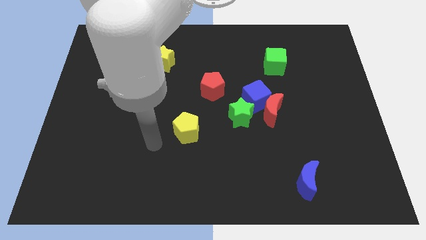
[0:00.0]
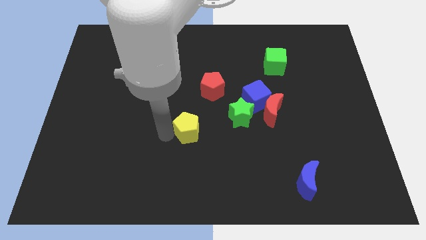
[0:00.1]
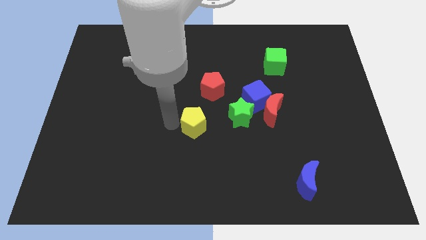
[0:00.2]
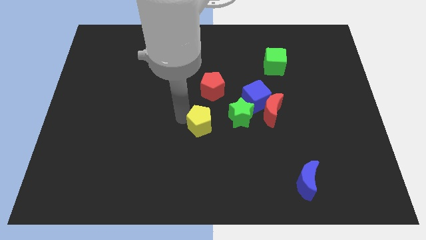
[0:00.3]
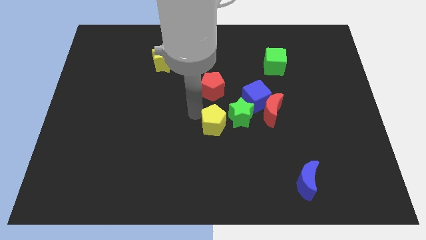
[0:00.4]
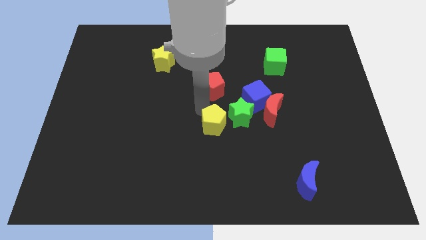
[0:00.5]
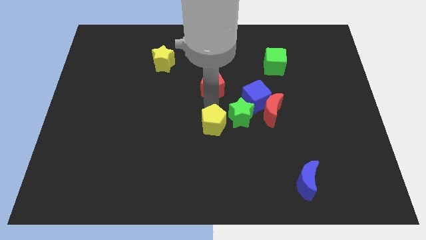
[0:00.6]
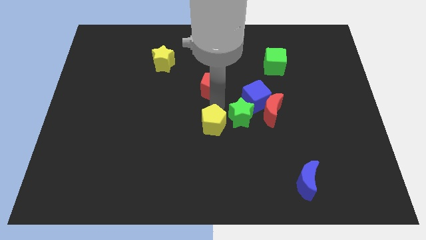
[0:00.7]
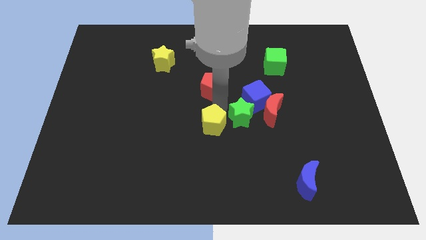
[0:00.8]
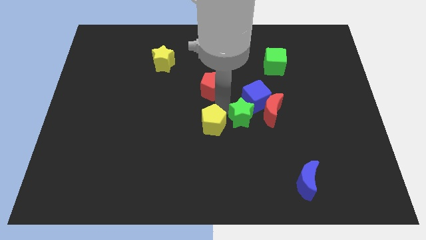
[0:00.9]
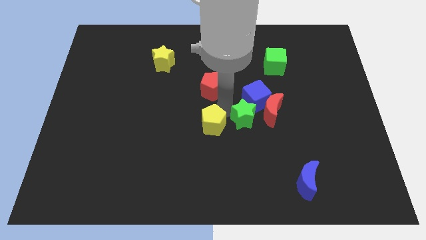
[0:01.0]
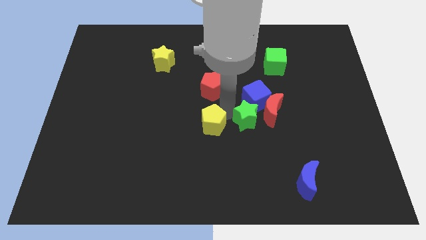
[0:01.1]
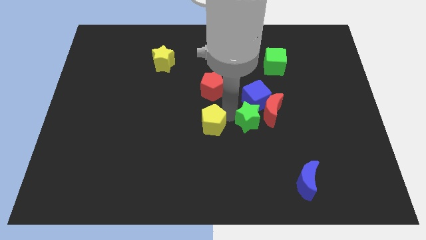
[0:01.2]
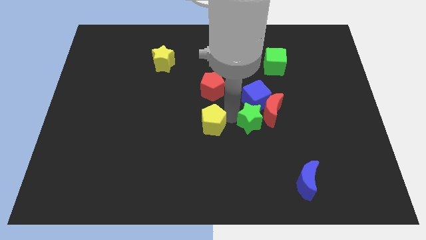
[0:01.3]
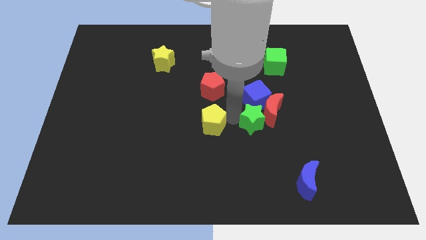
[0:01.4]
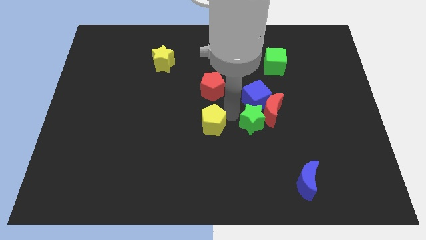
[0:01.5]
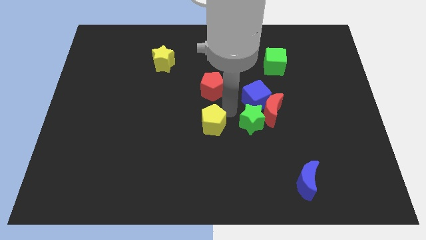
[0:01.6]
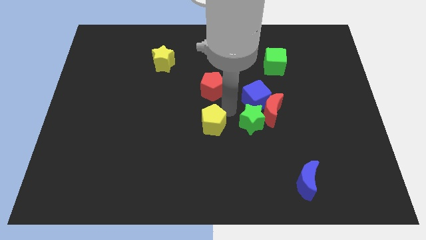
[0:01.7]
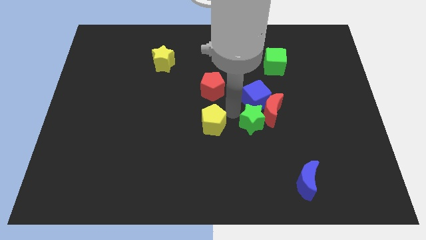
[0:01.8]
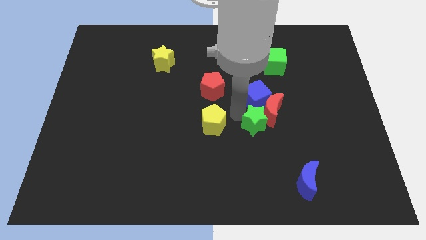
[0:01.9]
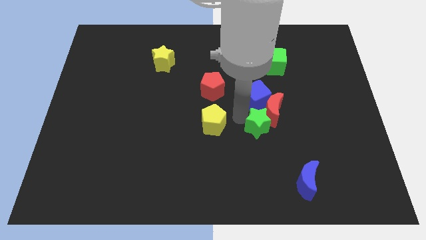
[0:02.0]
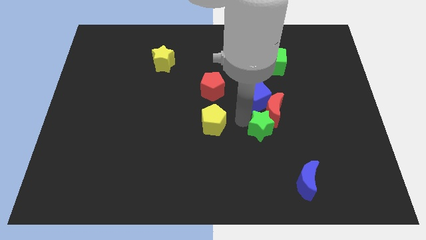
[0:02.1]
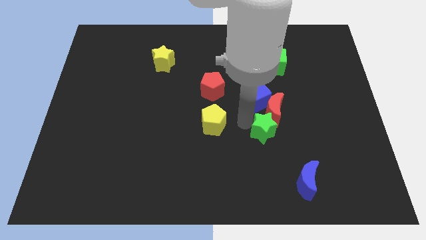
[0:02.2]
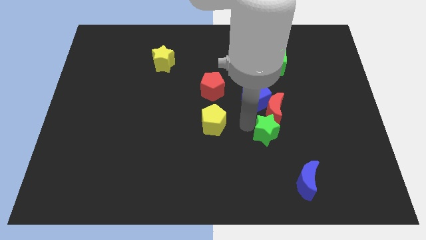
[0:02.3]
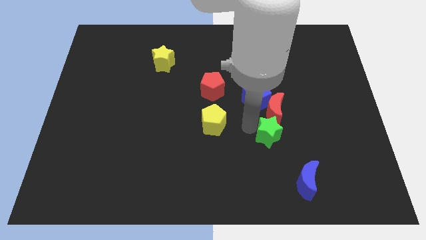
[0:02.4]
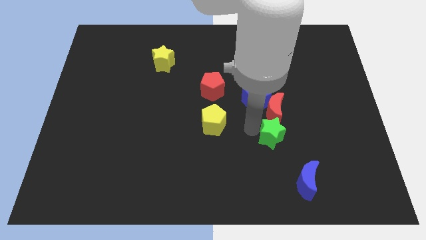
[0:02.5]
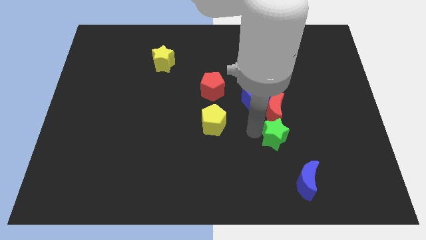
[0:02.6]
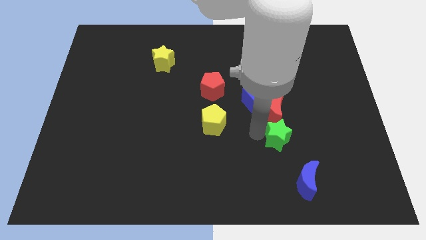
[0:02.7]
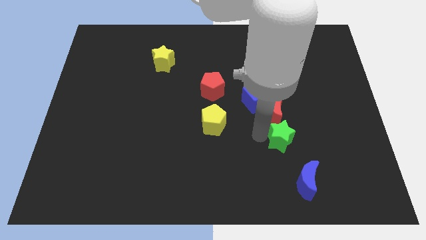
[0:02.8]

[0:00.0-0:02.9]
slightly move the green star to the right

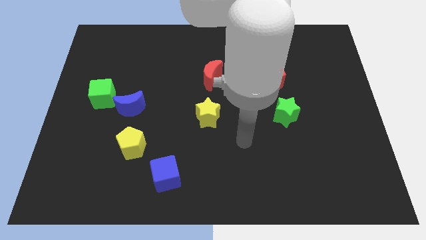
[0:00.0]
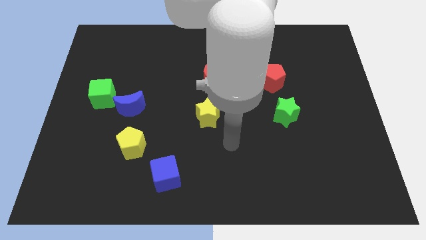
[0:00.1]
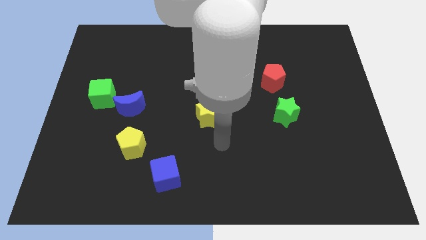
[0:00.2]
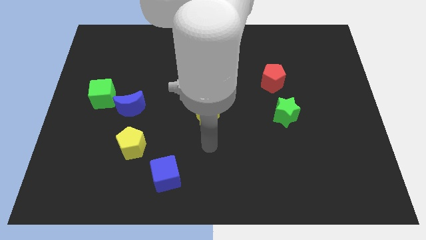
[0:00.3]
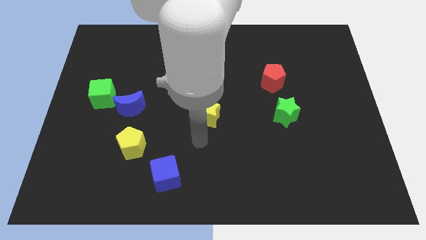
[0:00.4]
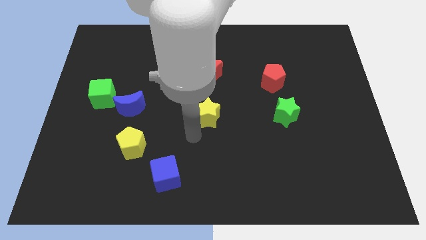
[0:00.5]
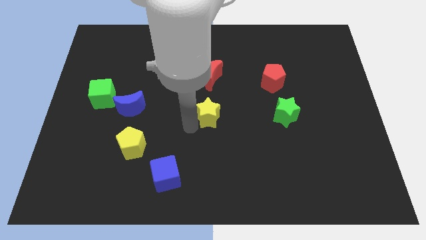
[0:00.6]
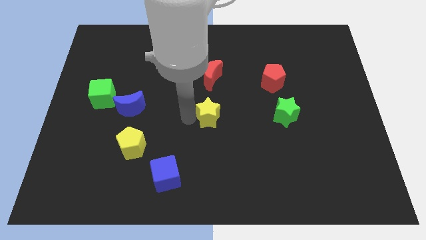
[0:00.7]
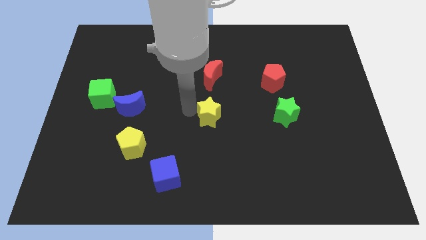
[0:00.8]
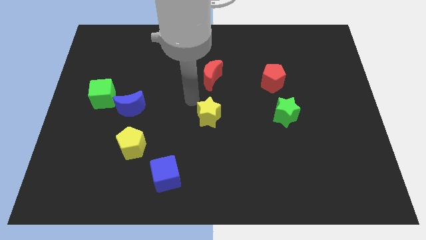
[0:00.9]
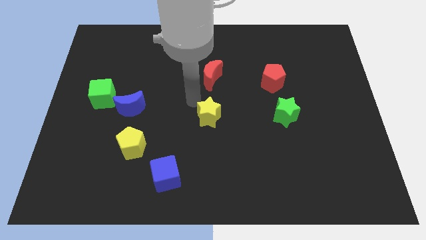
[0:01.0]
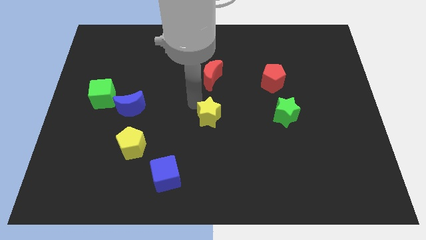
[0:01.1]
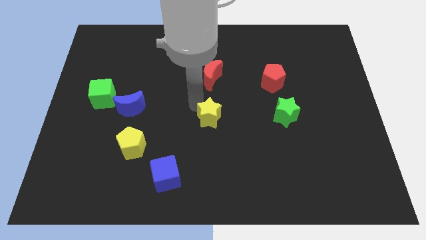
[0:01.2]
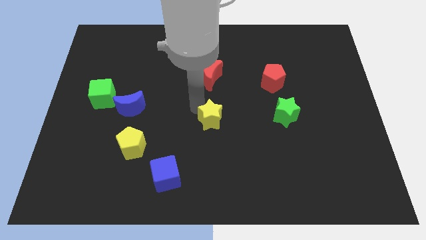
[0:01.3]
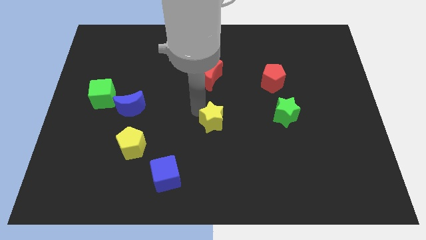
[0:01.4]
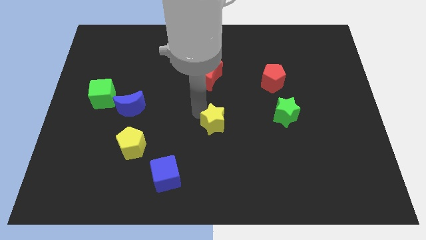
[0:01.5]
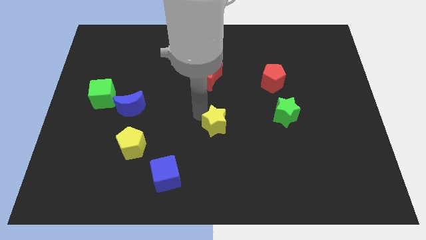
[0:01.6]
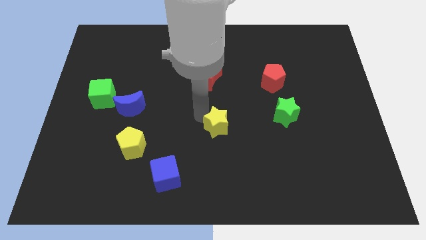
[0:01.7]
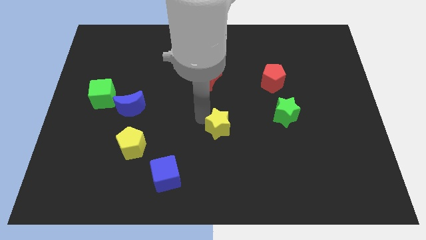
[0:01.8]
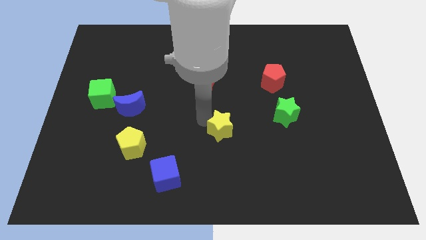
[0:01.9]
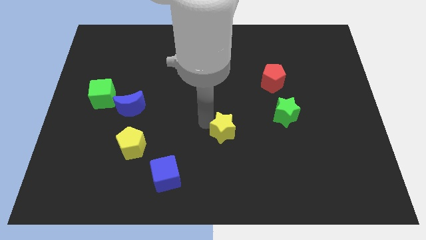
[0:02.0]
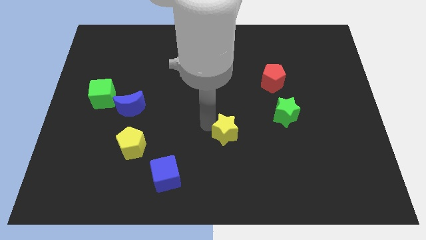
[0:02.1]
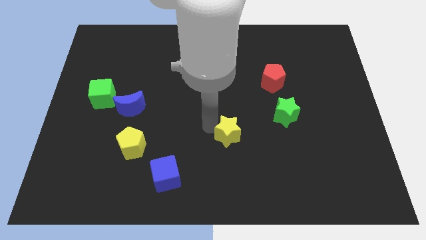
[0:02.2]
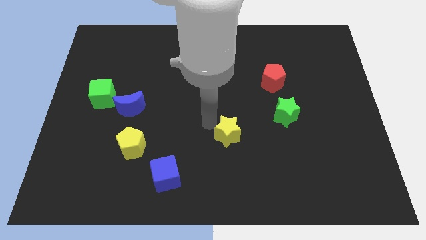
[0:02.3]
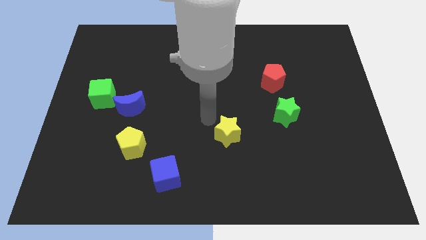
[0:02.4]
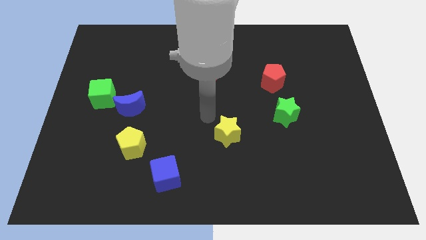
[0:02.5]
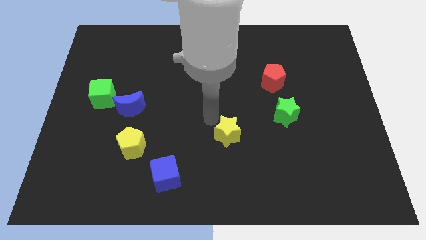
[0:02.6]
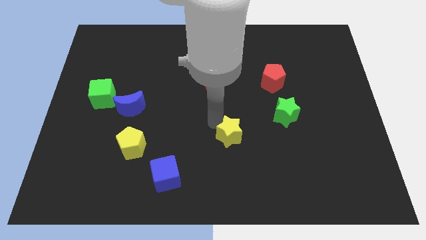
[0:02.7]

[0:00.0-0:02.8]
slightly slide the yellow star down and right diagonally

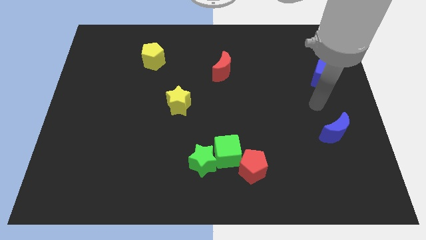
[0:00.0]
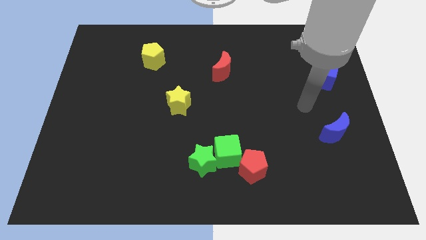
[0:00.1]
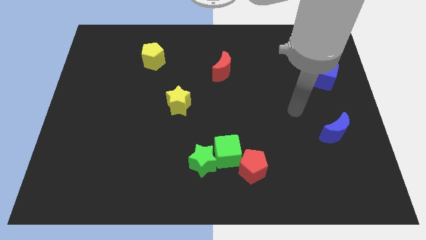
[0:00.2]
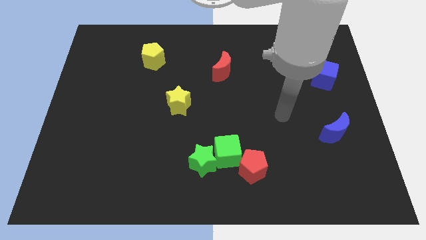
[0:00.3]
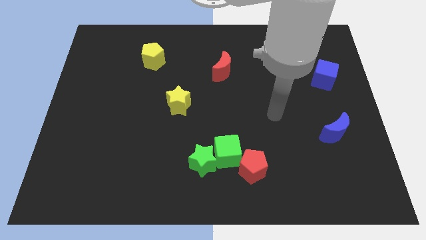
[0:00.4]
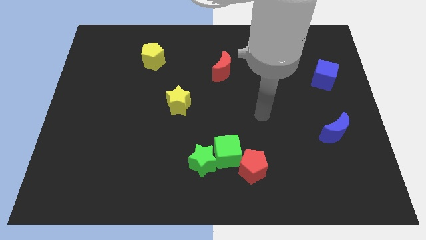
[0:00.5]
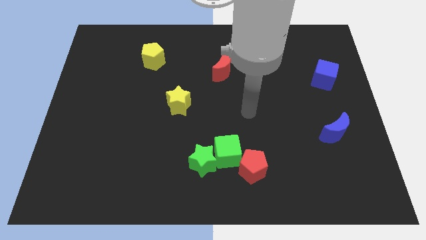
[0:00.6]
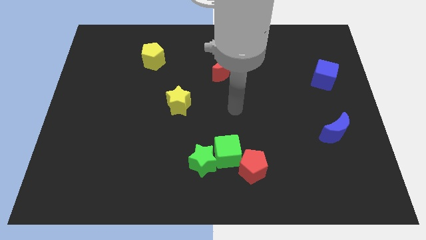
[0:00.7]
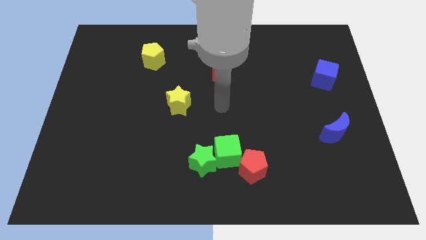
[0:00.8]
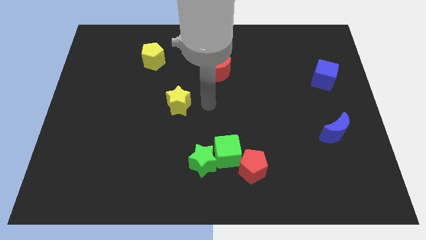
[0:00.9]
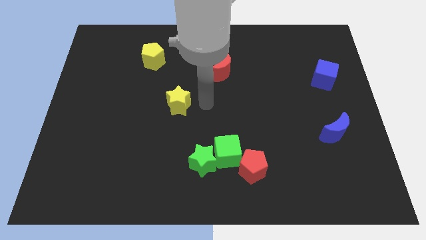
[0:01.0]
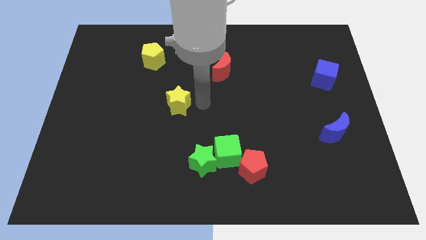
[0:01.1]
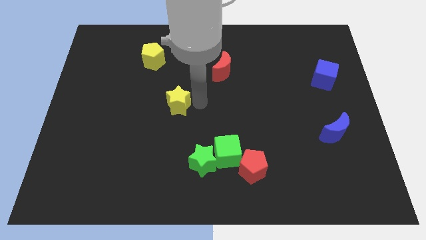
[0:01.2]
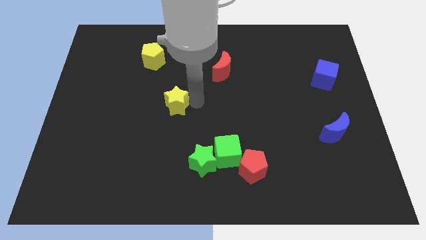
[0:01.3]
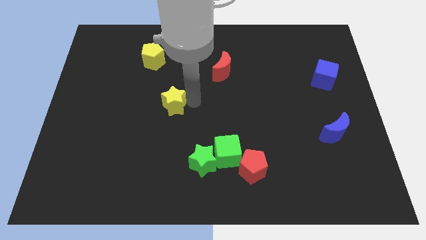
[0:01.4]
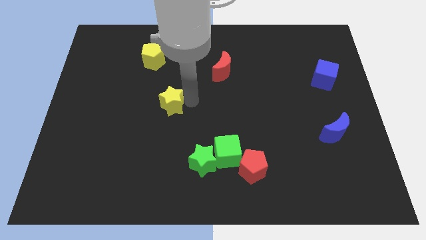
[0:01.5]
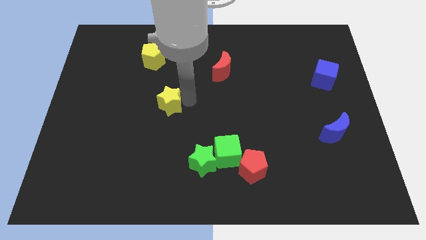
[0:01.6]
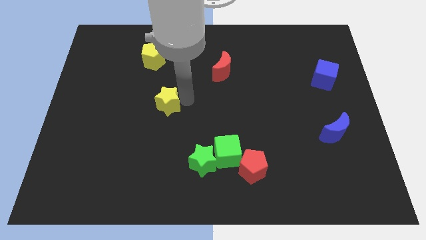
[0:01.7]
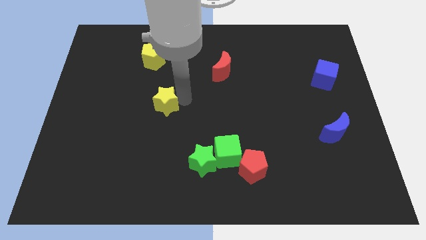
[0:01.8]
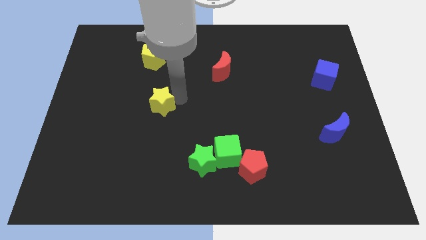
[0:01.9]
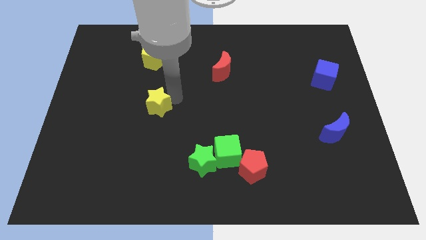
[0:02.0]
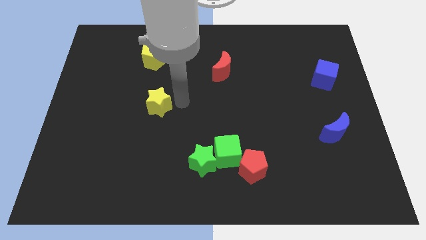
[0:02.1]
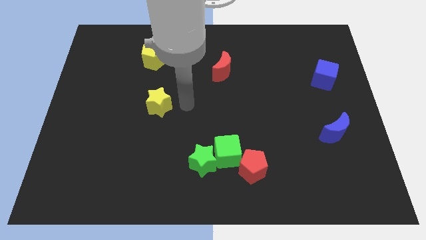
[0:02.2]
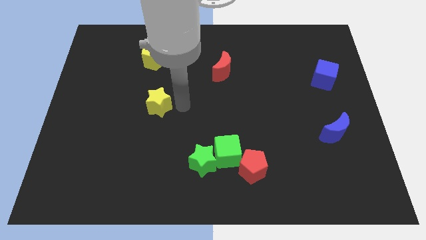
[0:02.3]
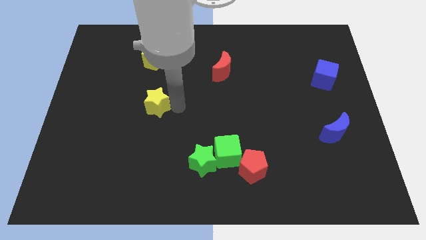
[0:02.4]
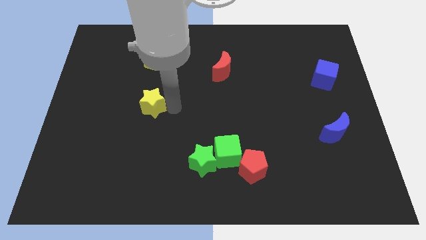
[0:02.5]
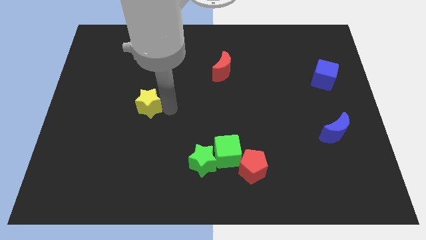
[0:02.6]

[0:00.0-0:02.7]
move the yellow star left somewhat
